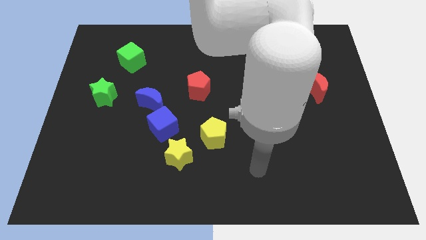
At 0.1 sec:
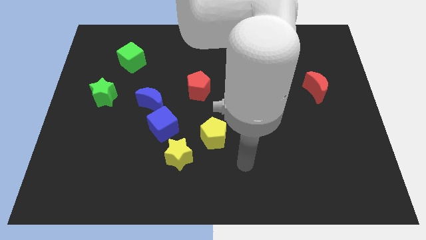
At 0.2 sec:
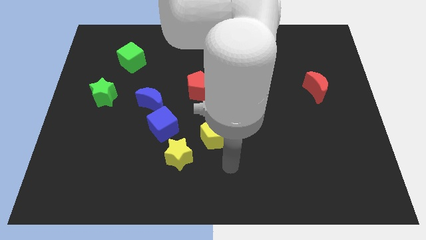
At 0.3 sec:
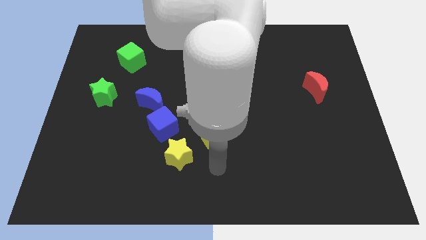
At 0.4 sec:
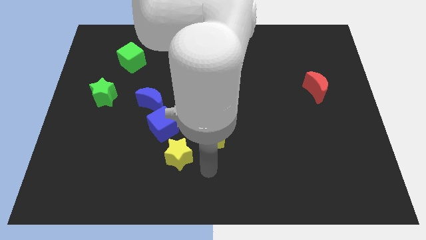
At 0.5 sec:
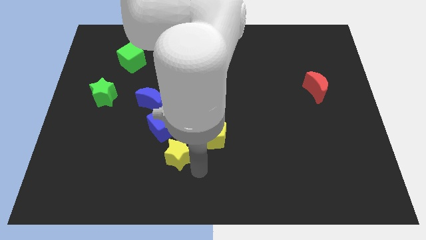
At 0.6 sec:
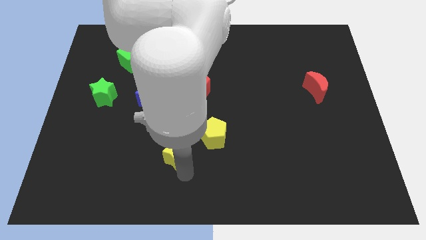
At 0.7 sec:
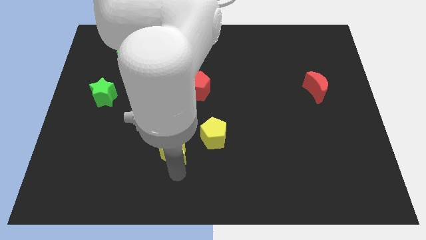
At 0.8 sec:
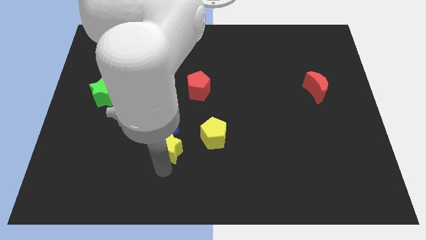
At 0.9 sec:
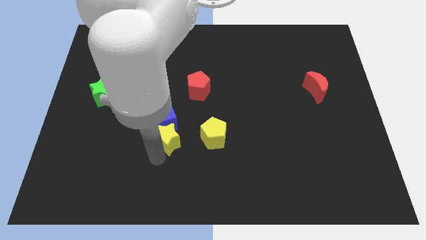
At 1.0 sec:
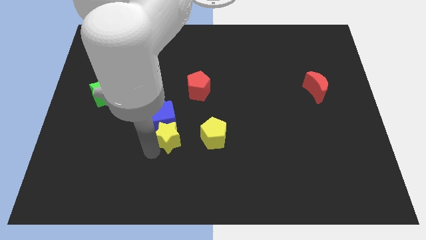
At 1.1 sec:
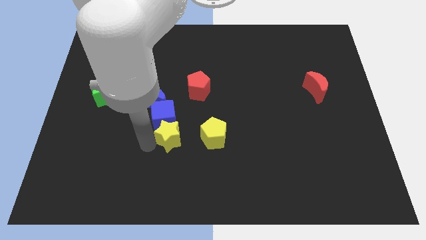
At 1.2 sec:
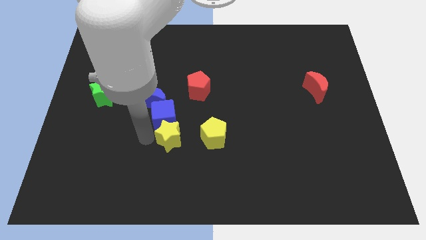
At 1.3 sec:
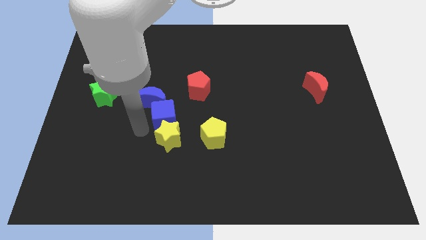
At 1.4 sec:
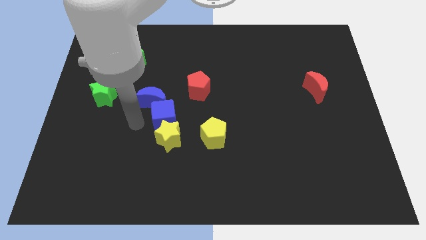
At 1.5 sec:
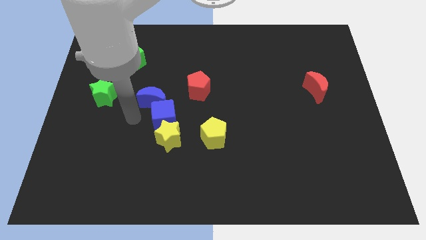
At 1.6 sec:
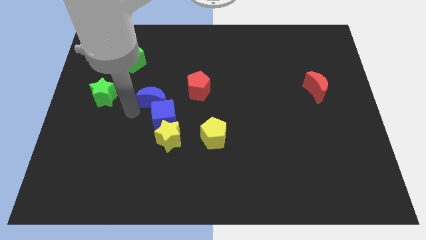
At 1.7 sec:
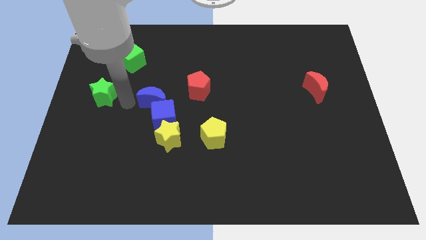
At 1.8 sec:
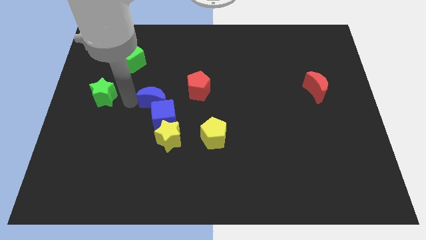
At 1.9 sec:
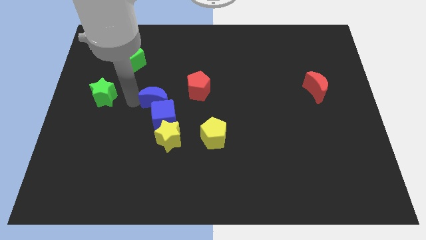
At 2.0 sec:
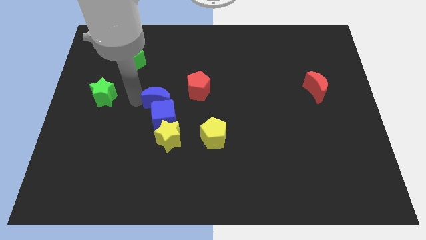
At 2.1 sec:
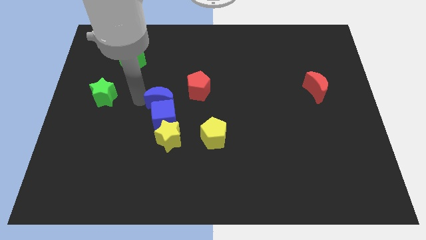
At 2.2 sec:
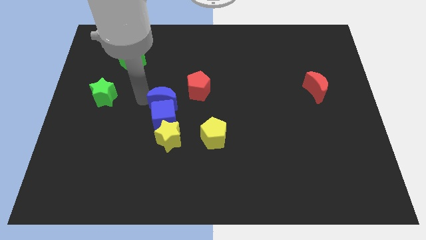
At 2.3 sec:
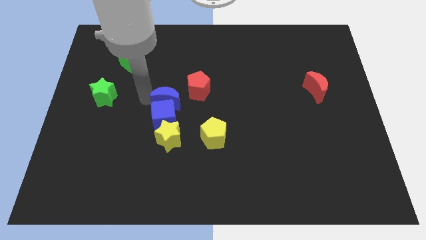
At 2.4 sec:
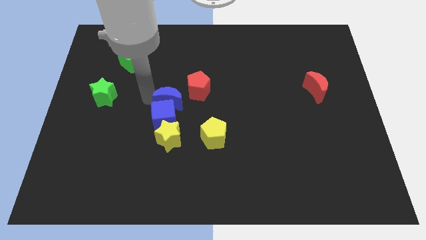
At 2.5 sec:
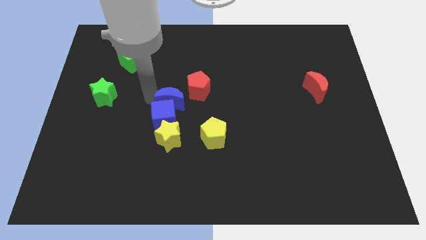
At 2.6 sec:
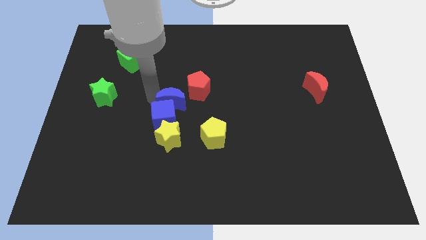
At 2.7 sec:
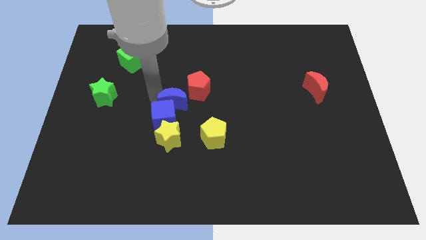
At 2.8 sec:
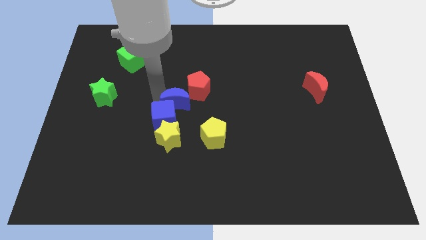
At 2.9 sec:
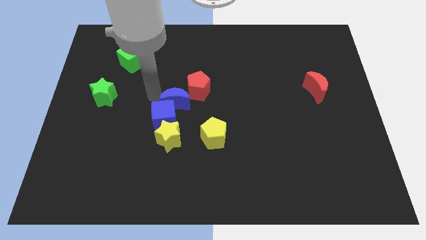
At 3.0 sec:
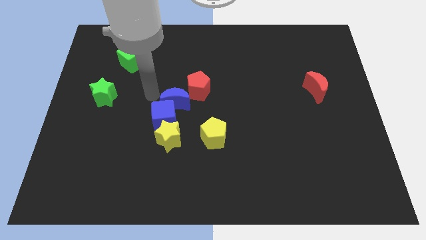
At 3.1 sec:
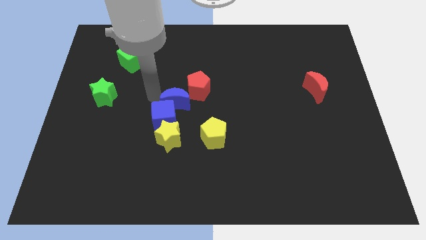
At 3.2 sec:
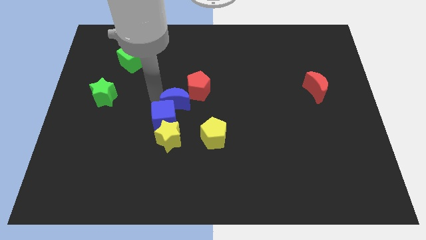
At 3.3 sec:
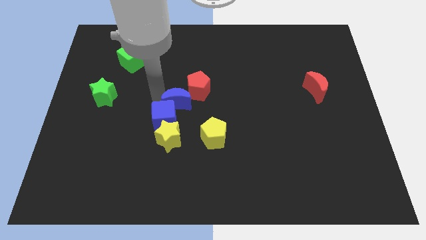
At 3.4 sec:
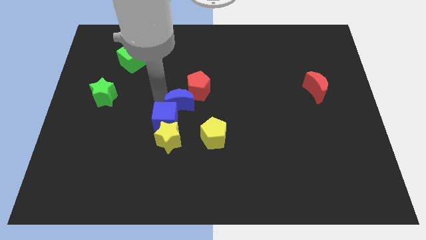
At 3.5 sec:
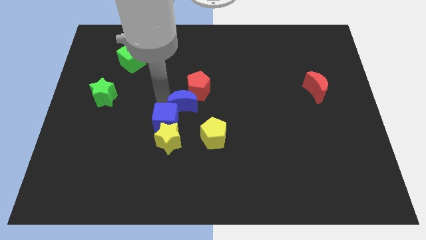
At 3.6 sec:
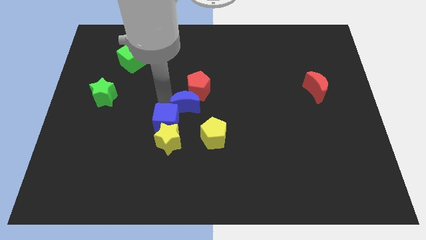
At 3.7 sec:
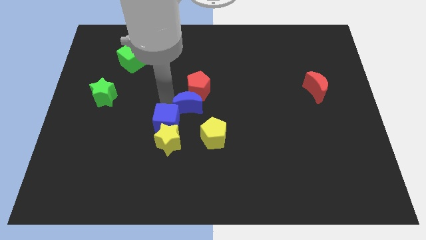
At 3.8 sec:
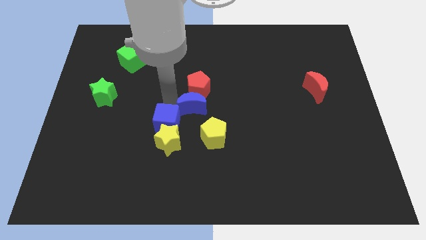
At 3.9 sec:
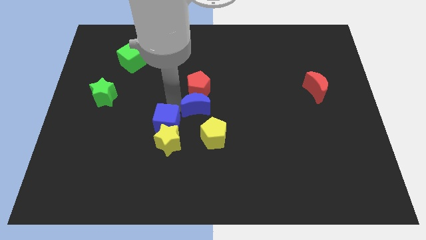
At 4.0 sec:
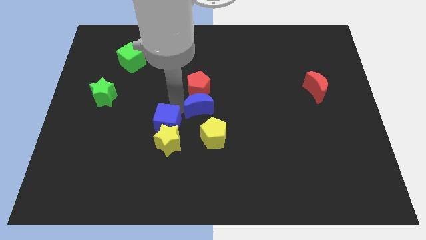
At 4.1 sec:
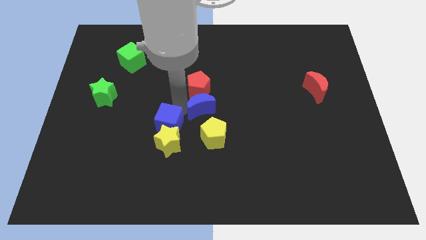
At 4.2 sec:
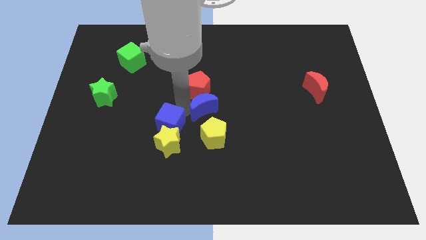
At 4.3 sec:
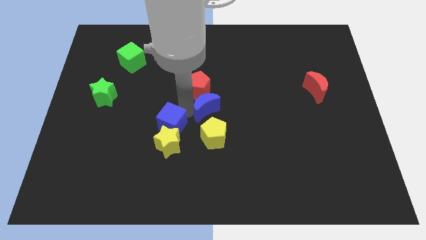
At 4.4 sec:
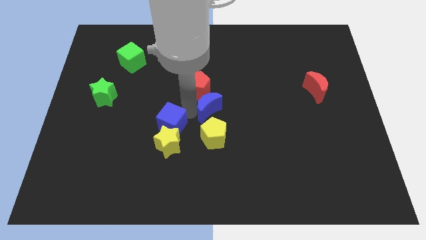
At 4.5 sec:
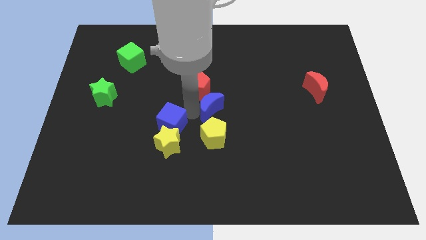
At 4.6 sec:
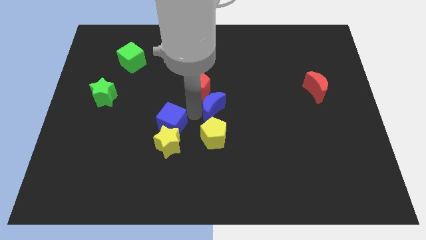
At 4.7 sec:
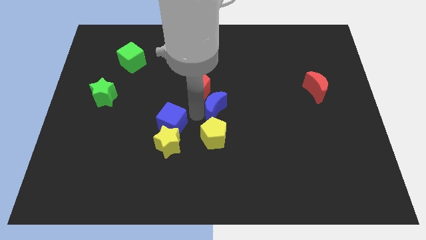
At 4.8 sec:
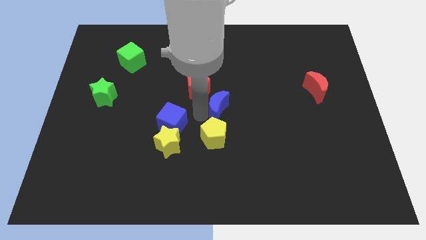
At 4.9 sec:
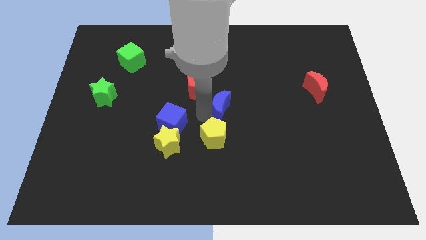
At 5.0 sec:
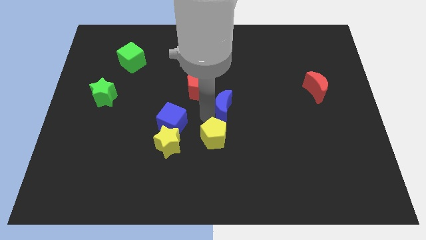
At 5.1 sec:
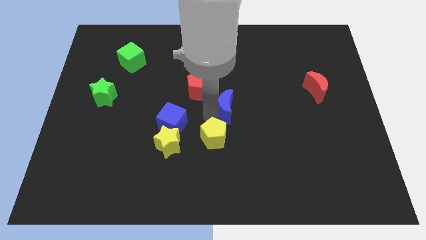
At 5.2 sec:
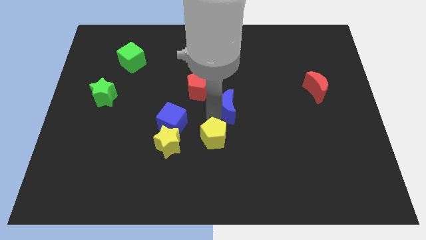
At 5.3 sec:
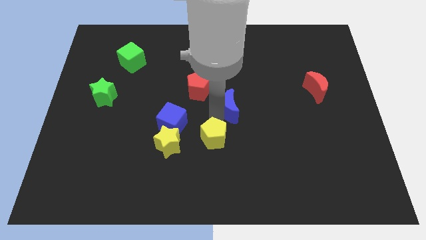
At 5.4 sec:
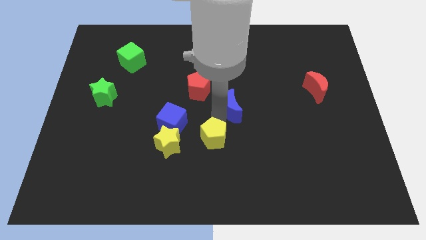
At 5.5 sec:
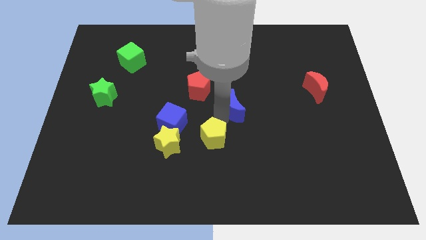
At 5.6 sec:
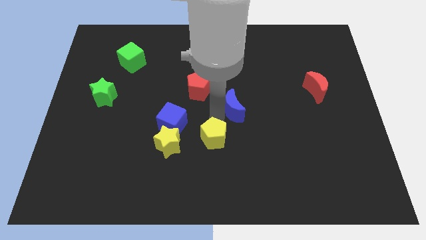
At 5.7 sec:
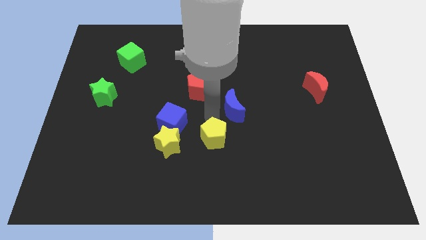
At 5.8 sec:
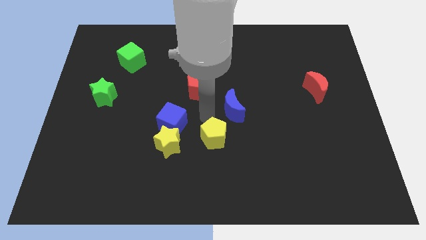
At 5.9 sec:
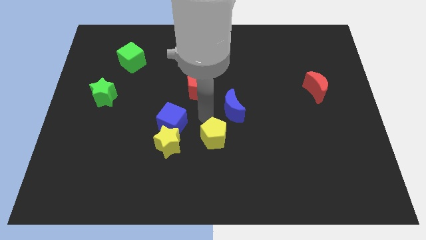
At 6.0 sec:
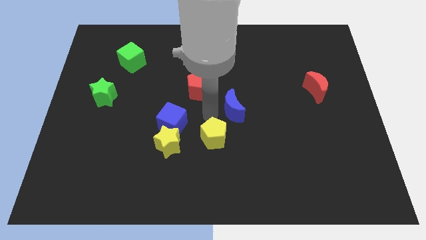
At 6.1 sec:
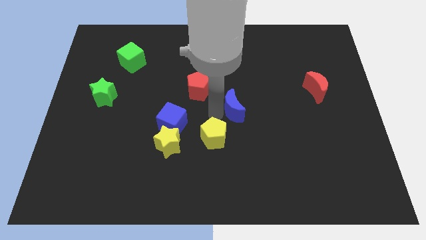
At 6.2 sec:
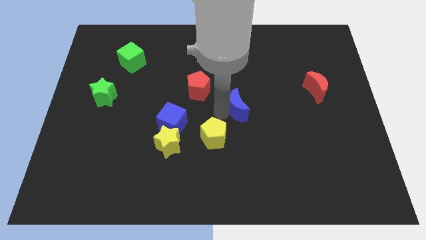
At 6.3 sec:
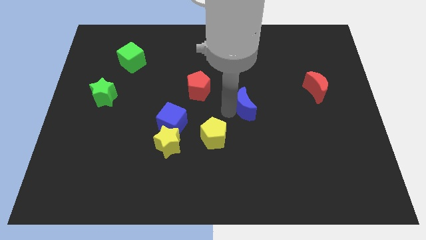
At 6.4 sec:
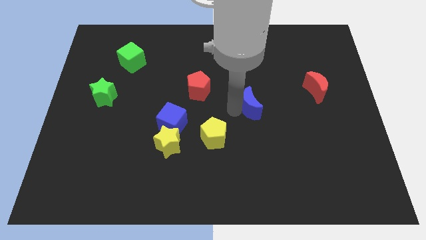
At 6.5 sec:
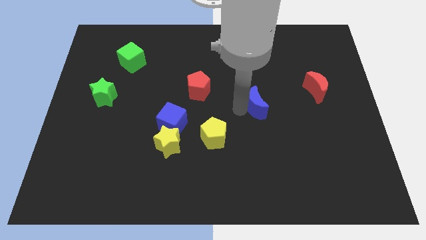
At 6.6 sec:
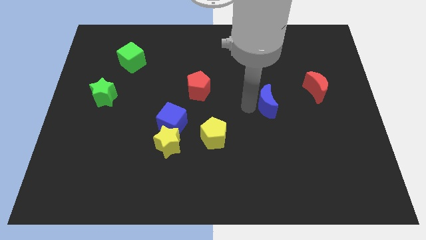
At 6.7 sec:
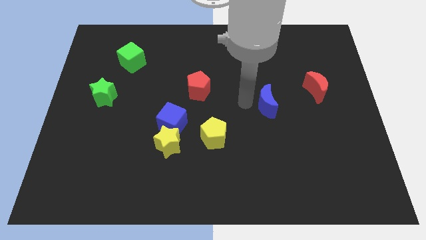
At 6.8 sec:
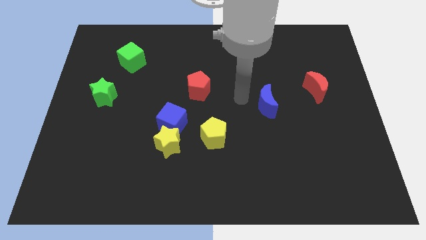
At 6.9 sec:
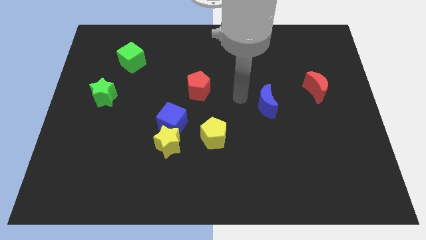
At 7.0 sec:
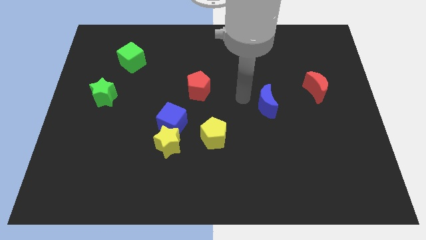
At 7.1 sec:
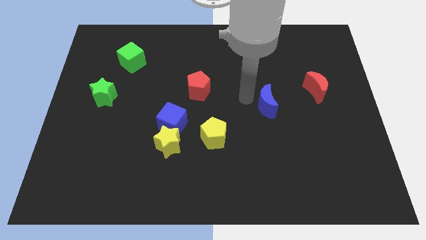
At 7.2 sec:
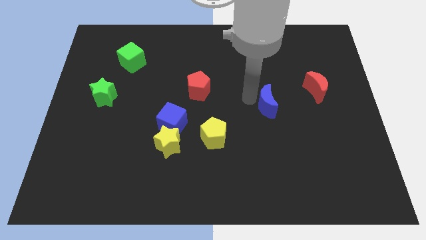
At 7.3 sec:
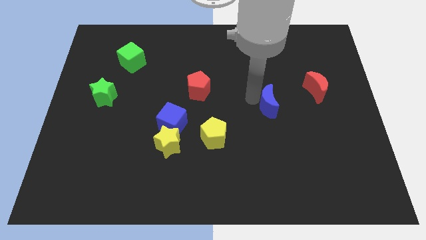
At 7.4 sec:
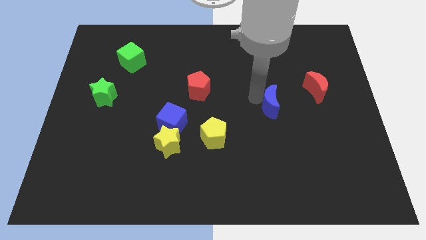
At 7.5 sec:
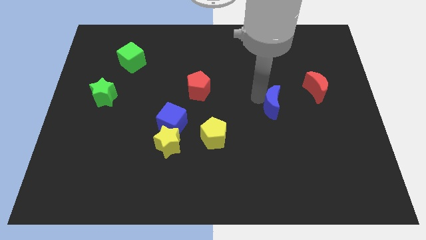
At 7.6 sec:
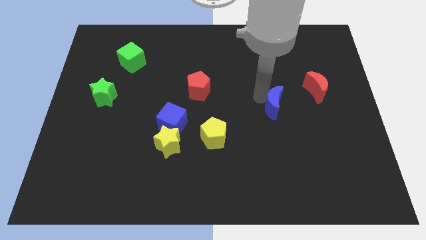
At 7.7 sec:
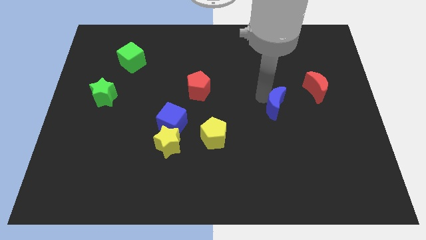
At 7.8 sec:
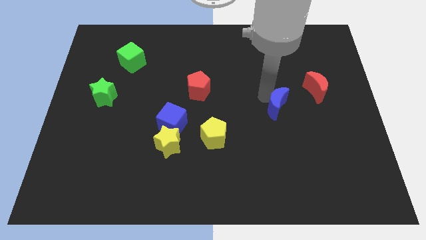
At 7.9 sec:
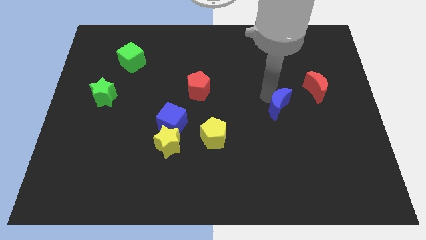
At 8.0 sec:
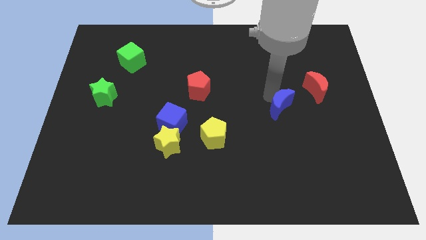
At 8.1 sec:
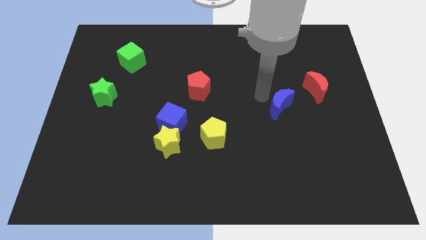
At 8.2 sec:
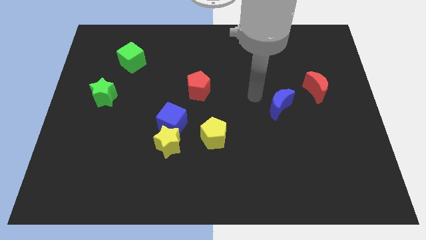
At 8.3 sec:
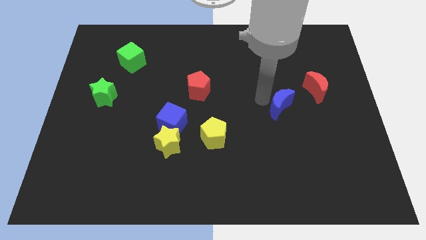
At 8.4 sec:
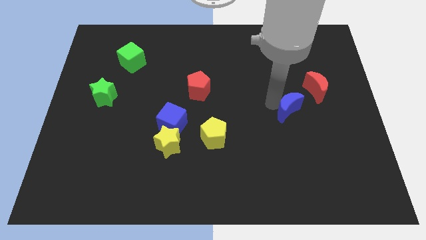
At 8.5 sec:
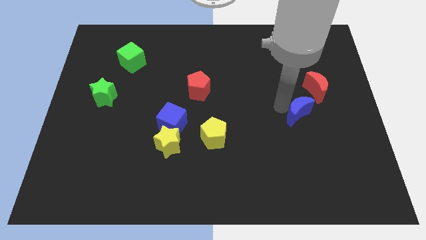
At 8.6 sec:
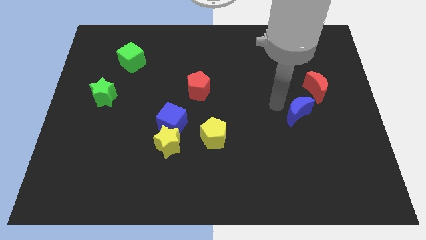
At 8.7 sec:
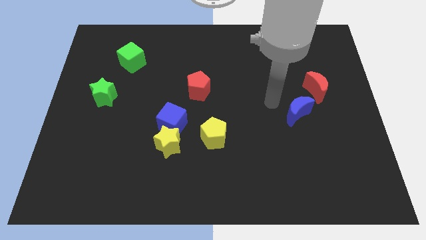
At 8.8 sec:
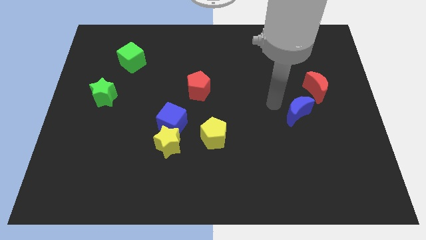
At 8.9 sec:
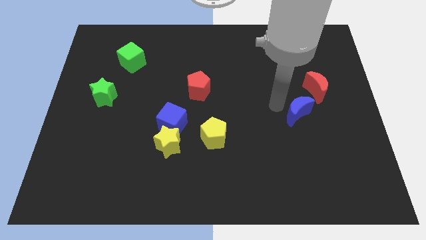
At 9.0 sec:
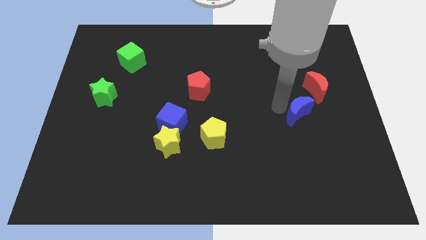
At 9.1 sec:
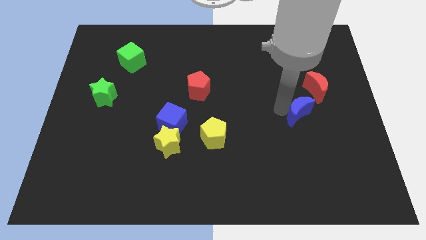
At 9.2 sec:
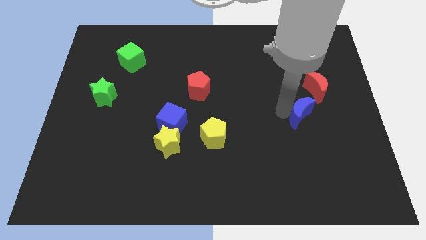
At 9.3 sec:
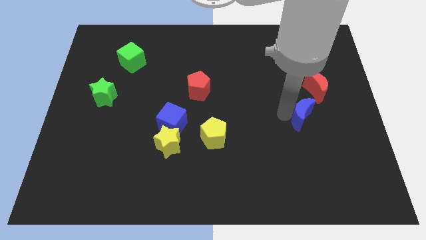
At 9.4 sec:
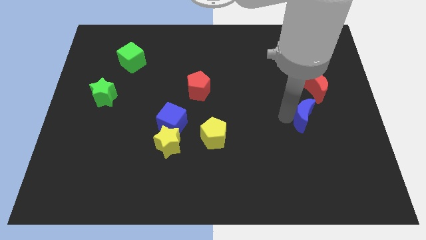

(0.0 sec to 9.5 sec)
slide the blue moon to the bottom of the red moon
